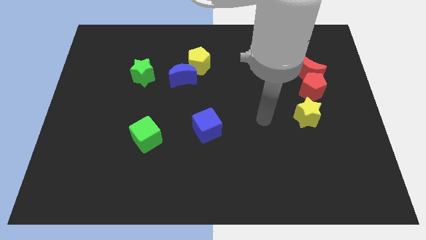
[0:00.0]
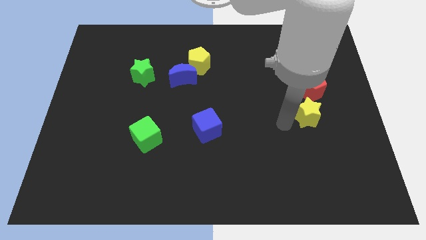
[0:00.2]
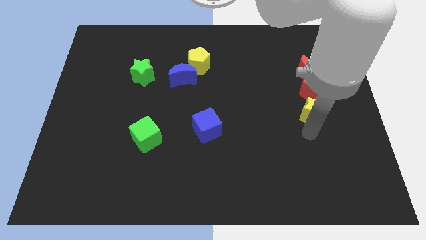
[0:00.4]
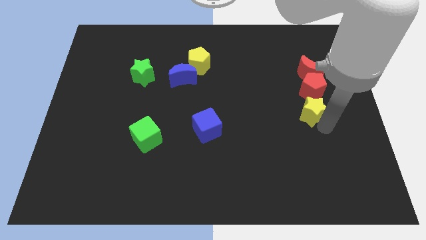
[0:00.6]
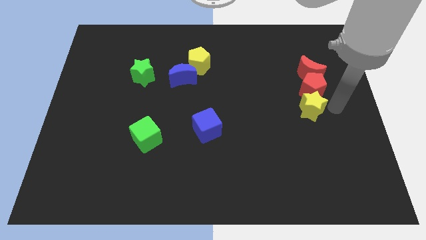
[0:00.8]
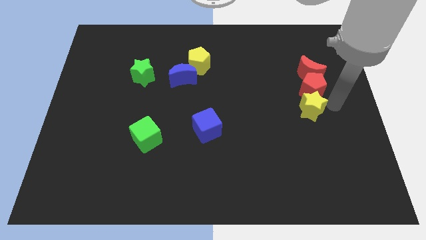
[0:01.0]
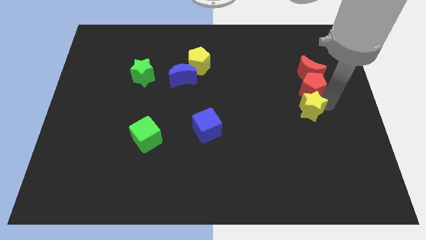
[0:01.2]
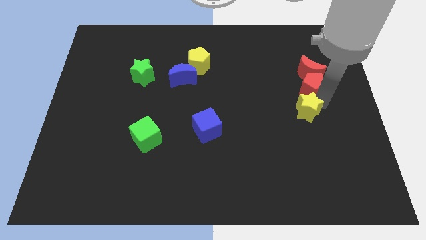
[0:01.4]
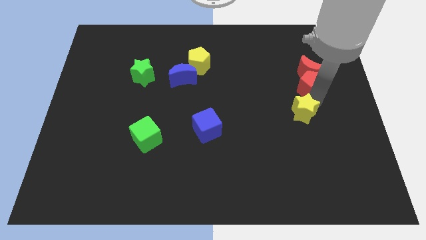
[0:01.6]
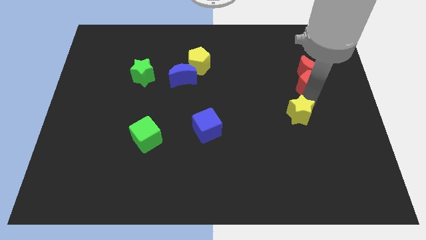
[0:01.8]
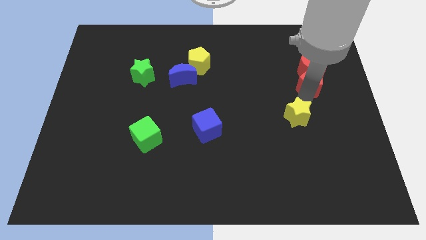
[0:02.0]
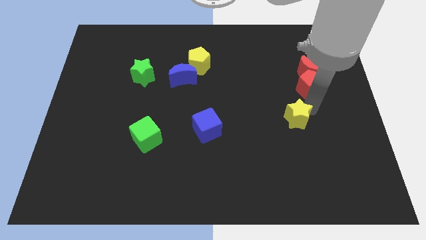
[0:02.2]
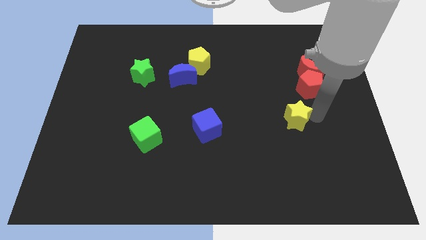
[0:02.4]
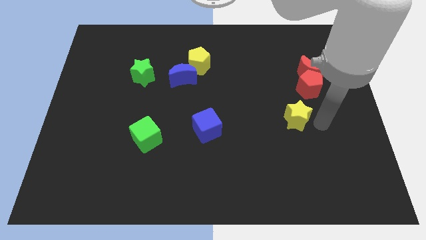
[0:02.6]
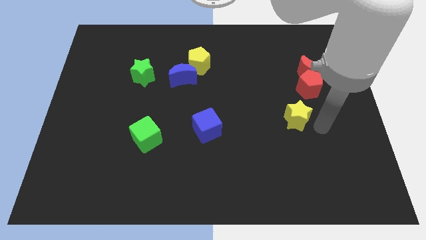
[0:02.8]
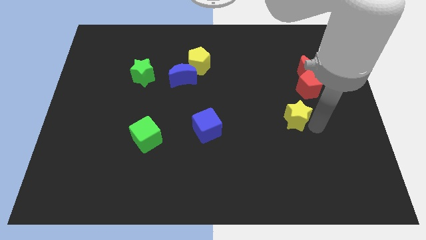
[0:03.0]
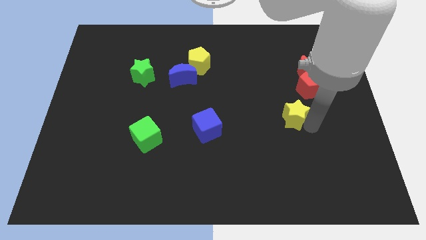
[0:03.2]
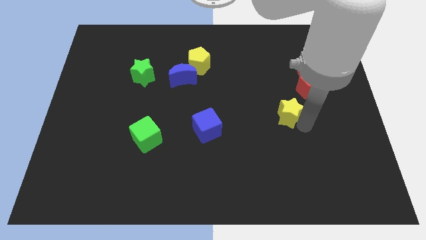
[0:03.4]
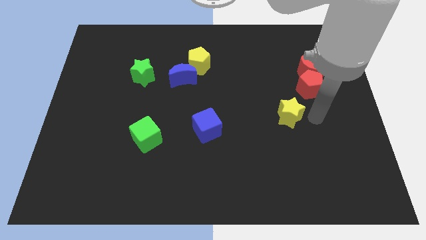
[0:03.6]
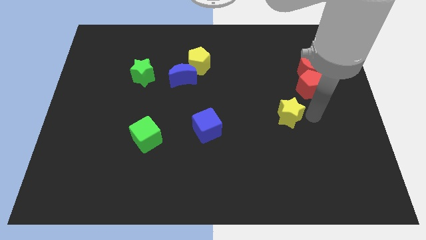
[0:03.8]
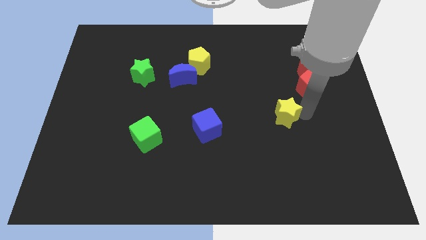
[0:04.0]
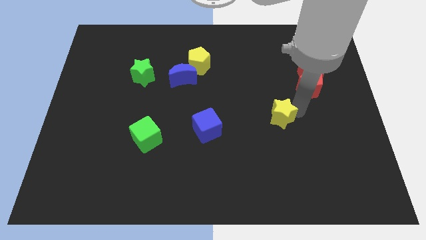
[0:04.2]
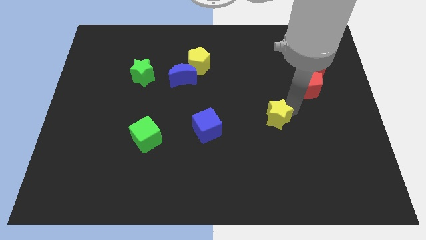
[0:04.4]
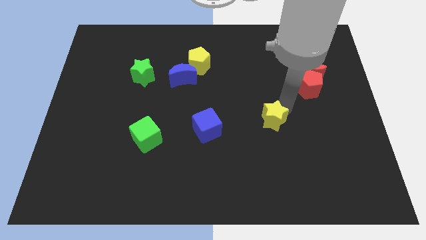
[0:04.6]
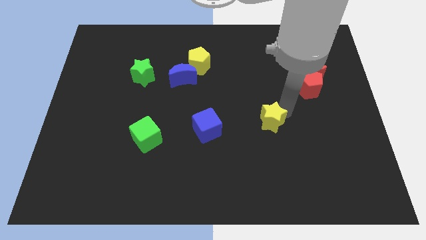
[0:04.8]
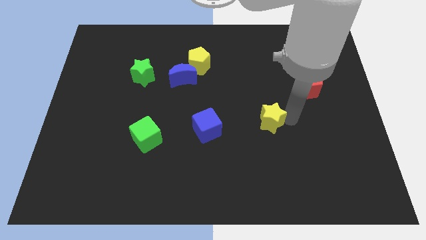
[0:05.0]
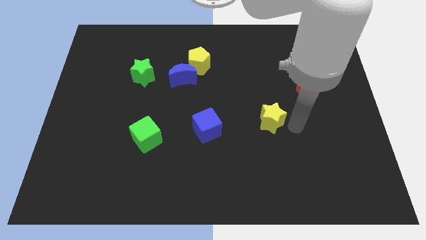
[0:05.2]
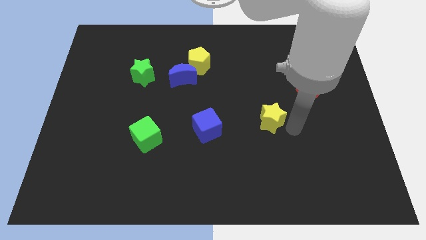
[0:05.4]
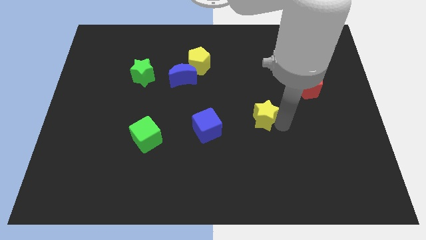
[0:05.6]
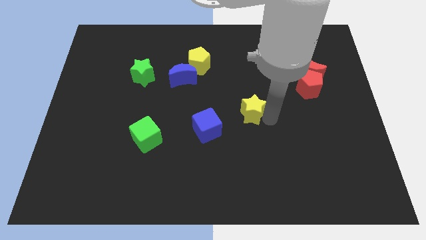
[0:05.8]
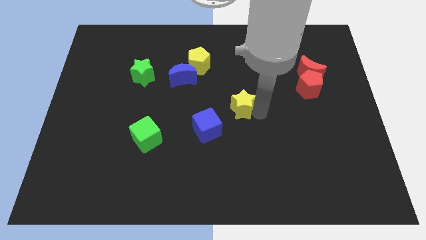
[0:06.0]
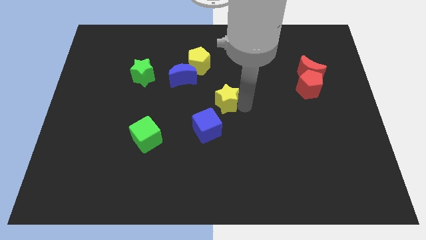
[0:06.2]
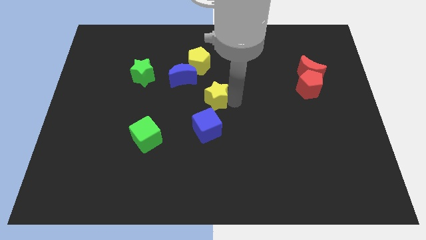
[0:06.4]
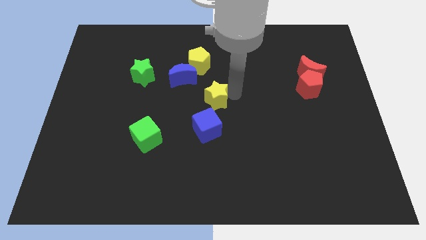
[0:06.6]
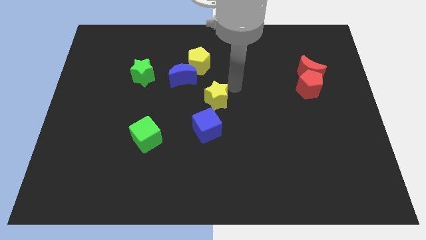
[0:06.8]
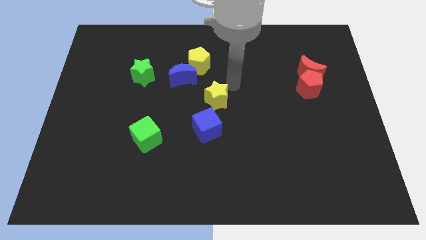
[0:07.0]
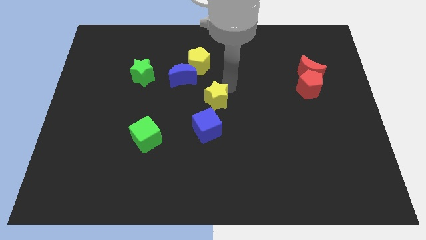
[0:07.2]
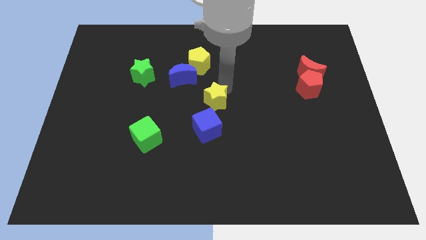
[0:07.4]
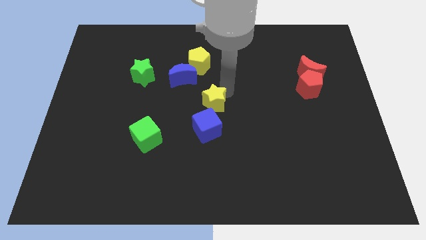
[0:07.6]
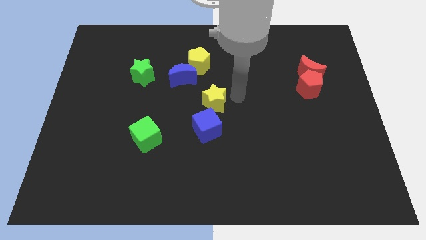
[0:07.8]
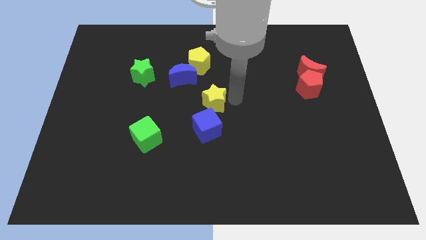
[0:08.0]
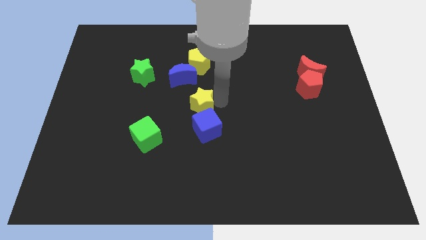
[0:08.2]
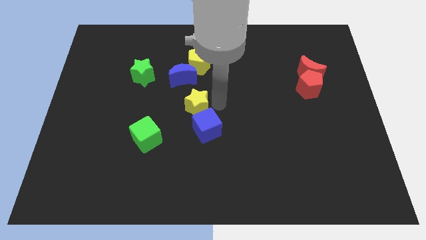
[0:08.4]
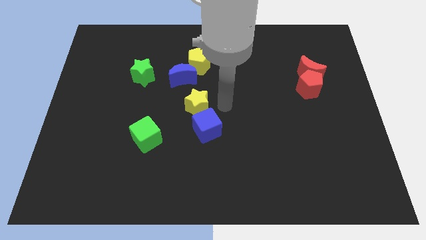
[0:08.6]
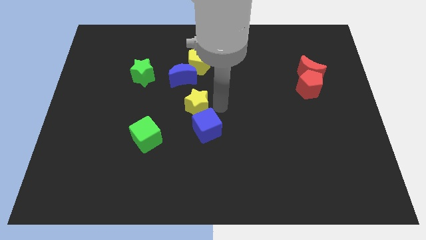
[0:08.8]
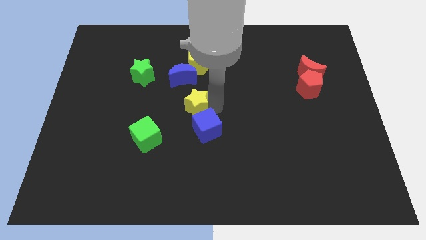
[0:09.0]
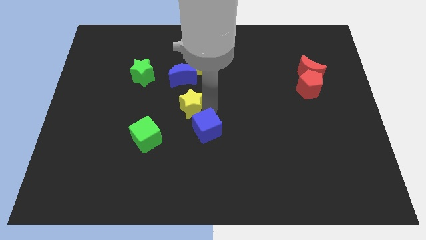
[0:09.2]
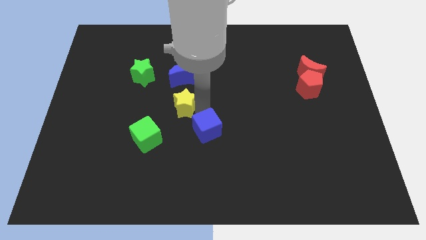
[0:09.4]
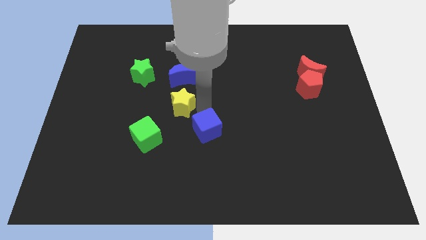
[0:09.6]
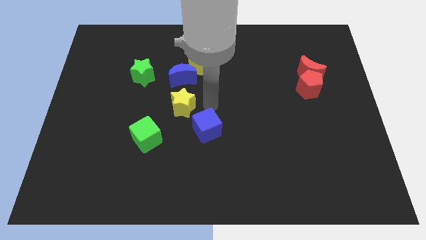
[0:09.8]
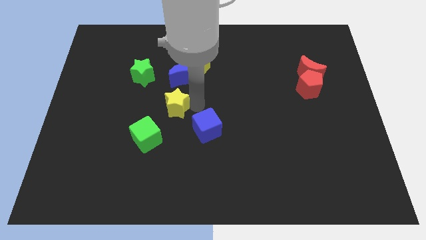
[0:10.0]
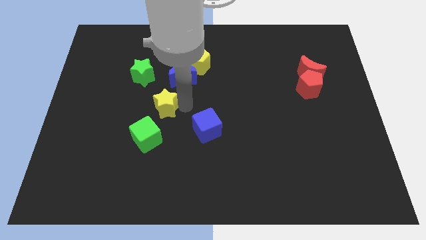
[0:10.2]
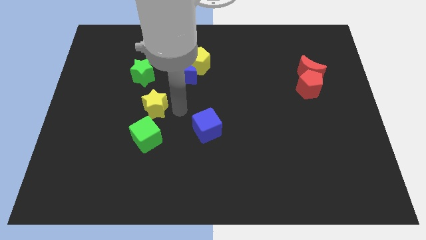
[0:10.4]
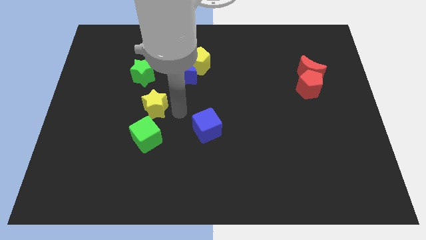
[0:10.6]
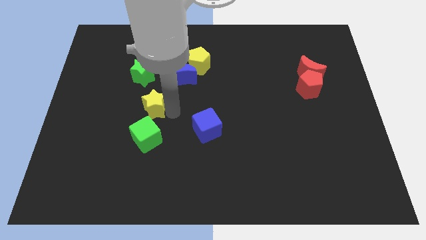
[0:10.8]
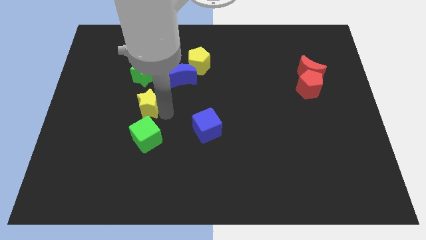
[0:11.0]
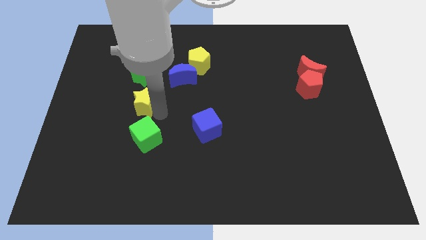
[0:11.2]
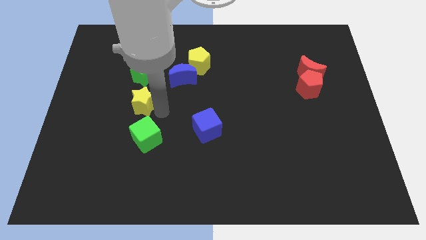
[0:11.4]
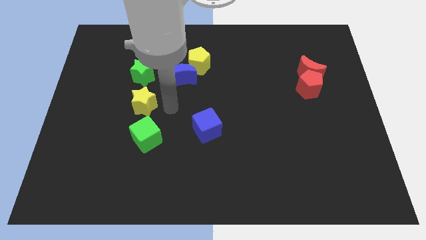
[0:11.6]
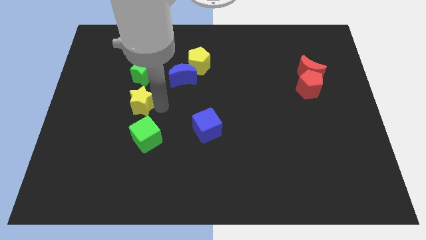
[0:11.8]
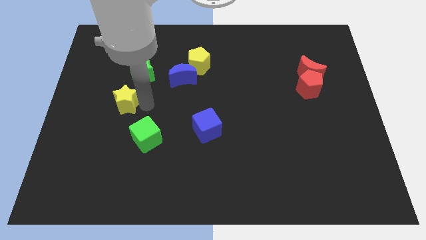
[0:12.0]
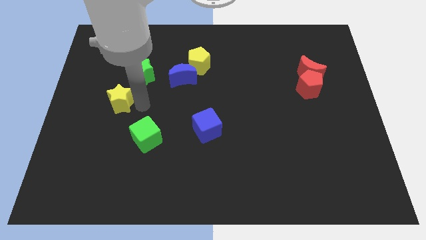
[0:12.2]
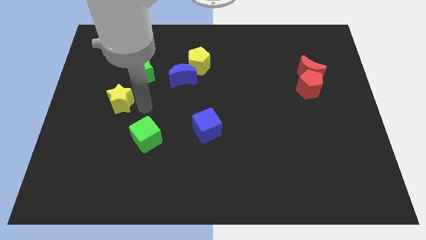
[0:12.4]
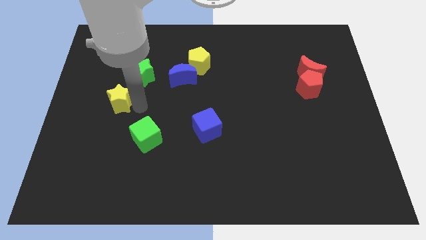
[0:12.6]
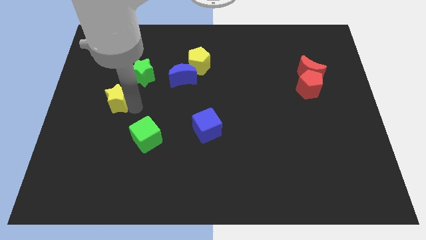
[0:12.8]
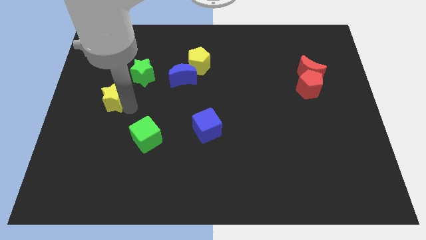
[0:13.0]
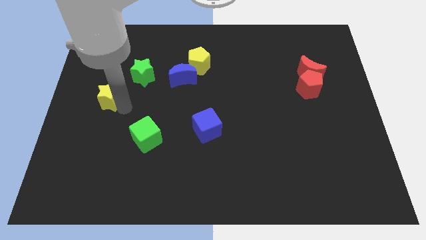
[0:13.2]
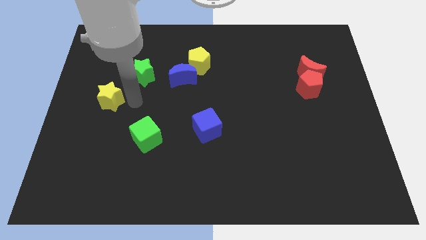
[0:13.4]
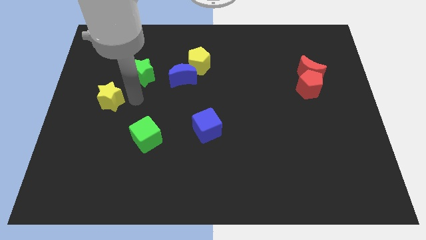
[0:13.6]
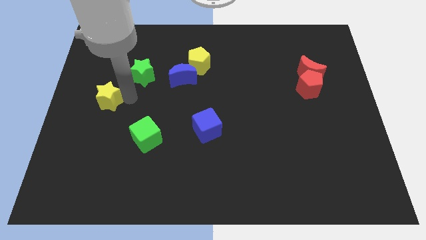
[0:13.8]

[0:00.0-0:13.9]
move the yellow star to the left side
